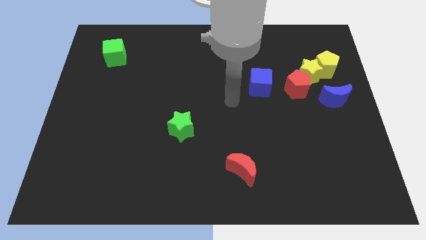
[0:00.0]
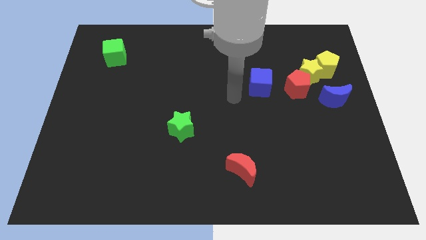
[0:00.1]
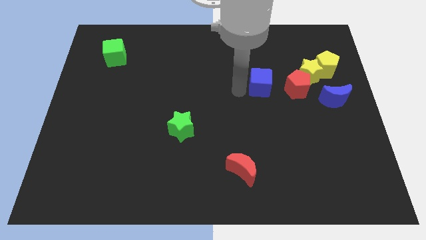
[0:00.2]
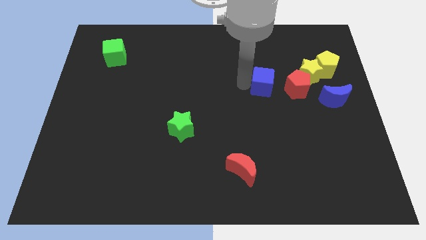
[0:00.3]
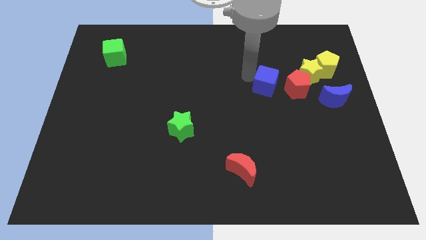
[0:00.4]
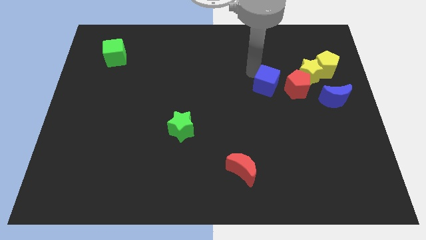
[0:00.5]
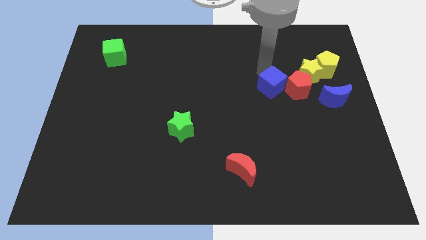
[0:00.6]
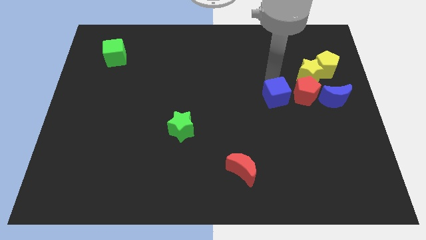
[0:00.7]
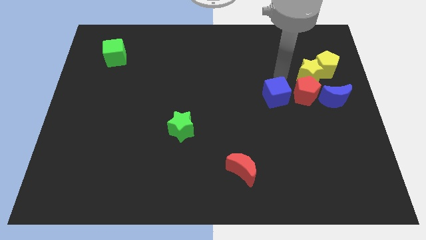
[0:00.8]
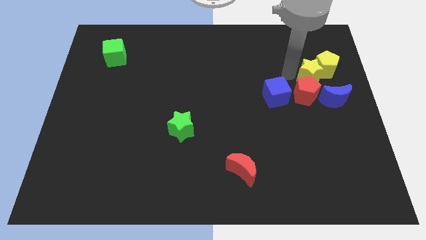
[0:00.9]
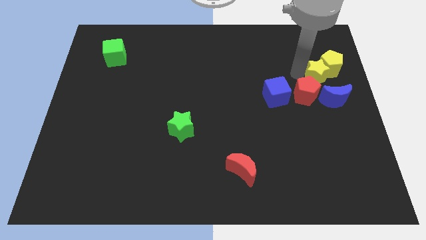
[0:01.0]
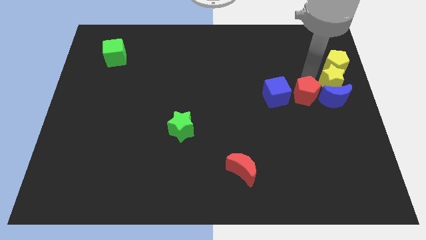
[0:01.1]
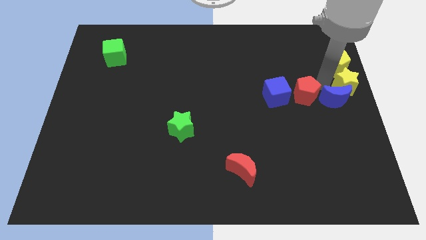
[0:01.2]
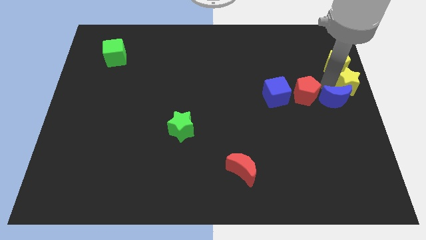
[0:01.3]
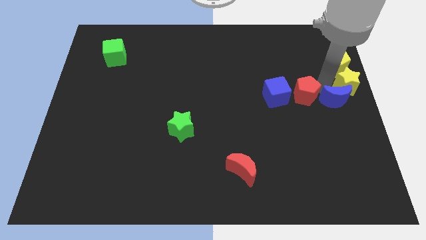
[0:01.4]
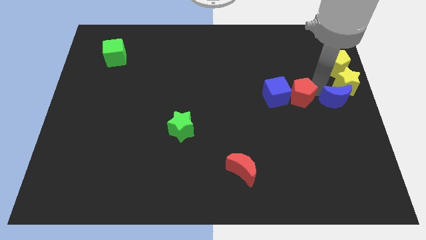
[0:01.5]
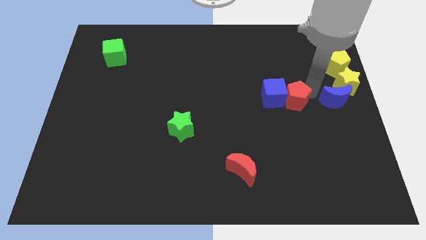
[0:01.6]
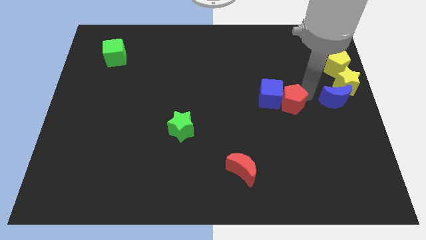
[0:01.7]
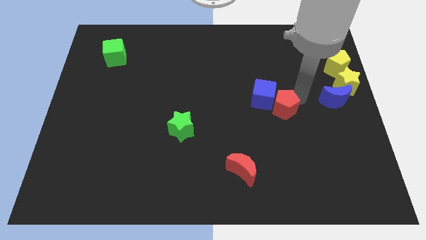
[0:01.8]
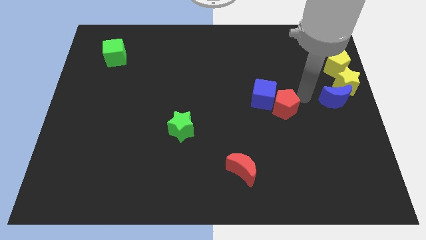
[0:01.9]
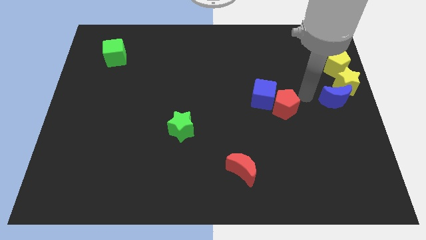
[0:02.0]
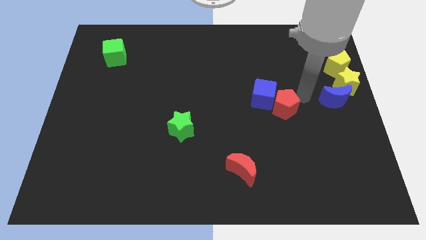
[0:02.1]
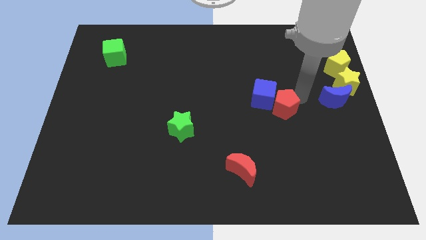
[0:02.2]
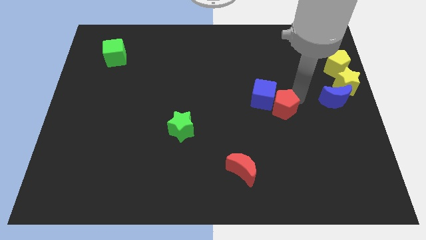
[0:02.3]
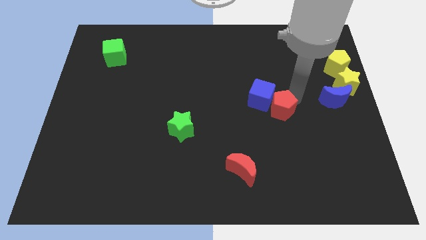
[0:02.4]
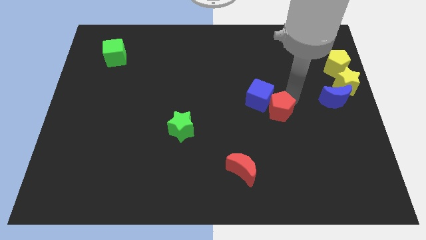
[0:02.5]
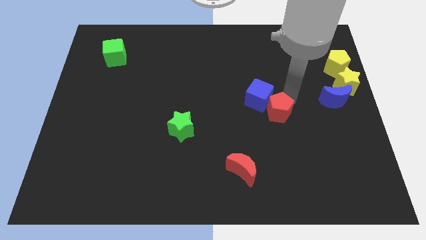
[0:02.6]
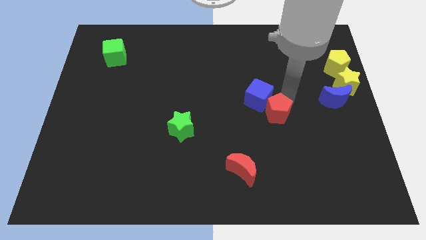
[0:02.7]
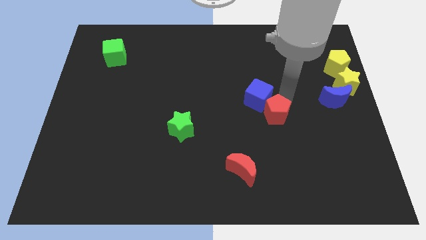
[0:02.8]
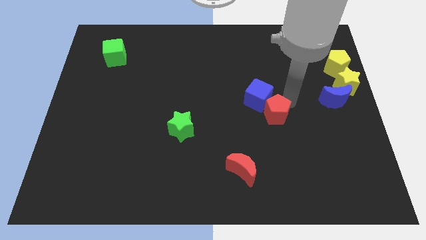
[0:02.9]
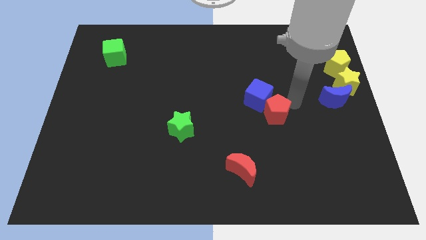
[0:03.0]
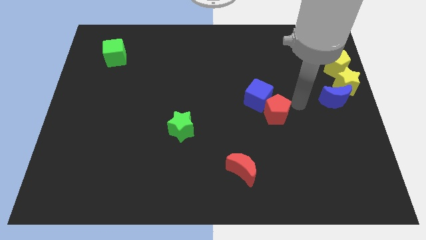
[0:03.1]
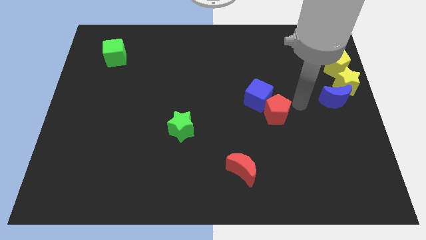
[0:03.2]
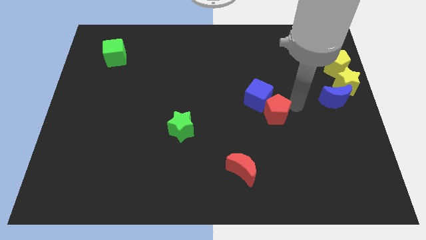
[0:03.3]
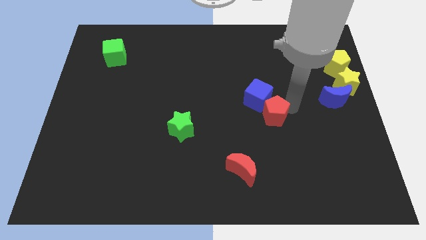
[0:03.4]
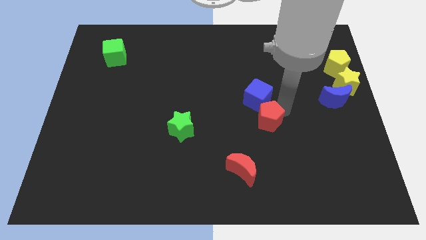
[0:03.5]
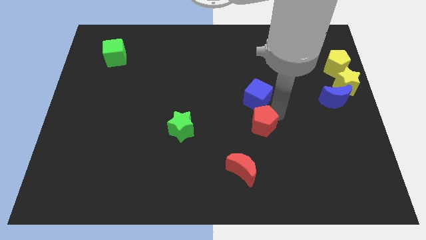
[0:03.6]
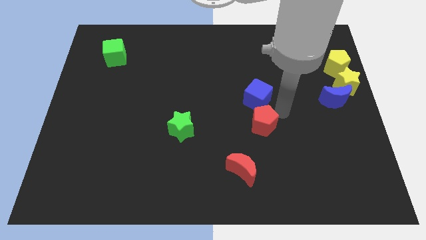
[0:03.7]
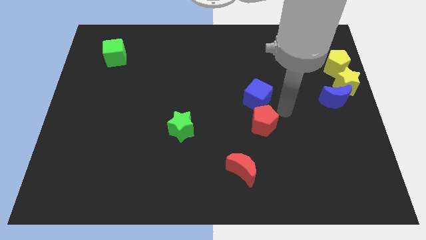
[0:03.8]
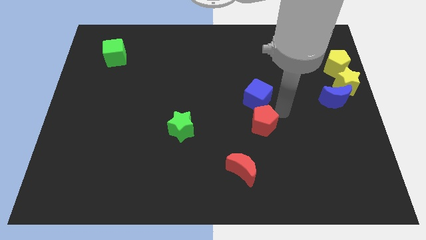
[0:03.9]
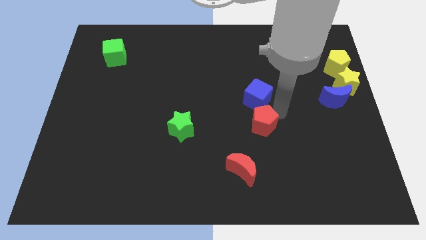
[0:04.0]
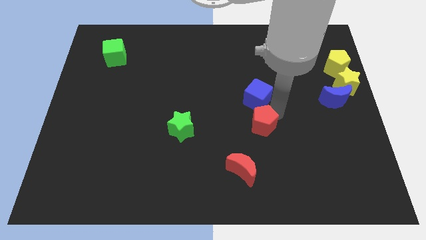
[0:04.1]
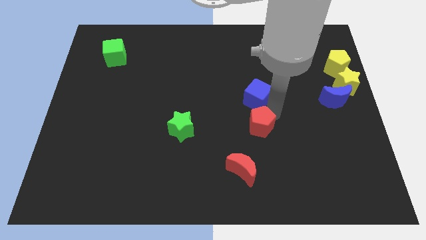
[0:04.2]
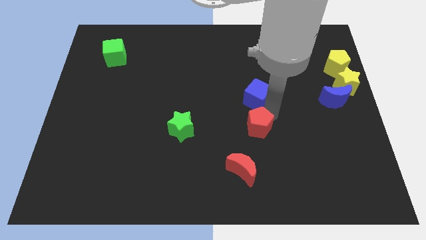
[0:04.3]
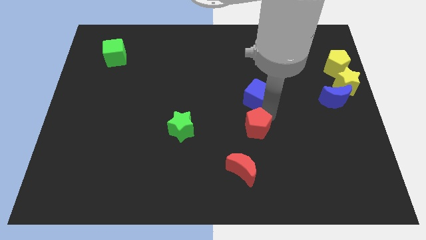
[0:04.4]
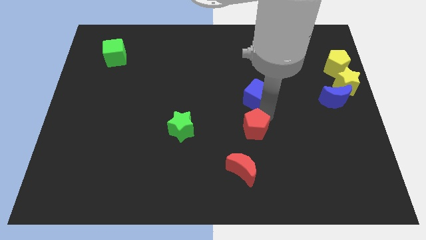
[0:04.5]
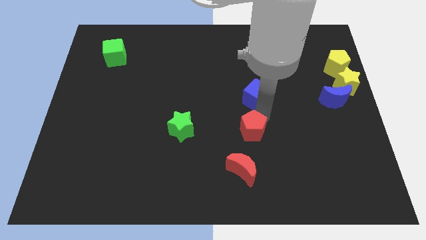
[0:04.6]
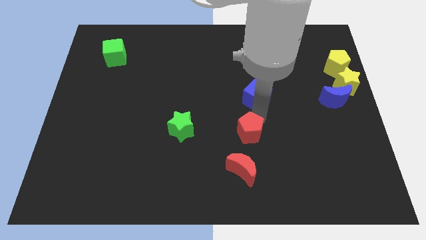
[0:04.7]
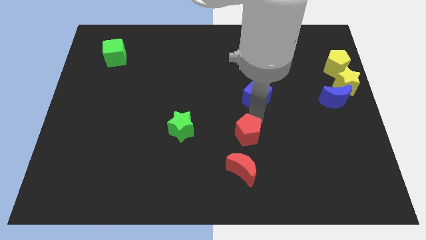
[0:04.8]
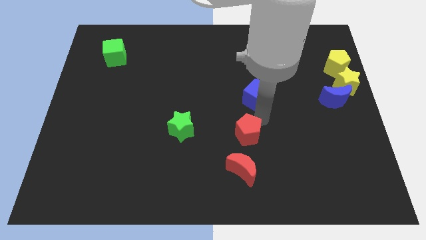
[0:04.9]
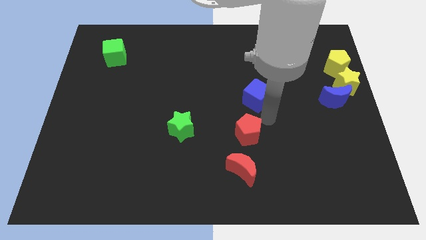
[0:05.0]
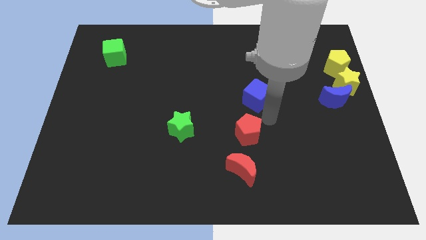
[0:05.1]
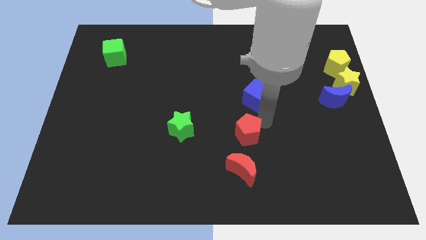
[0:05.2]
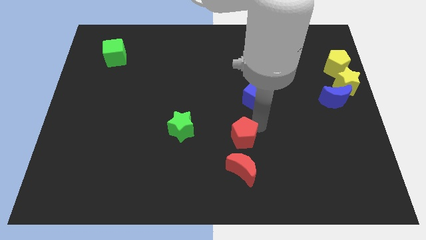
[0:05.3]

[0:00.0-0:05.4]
move the red pentagon down and then left

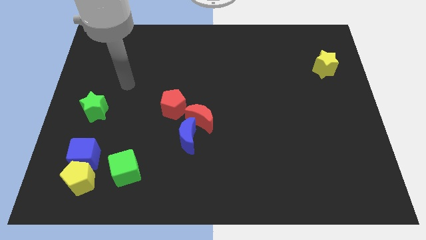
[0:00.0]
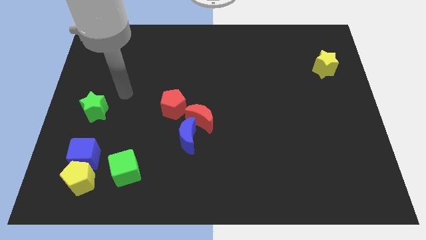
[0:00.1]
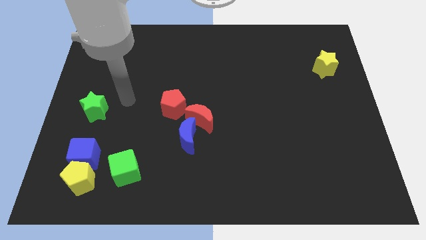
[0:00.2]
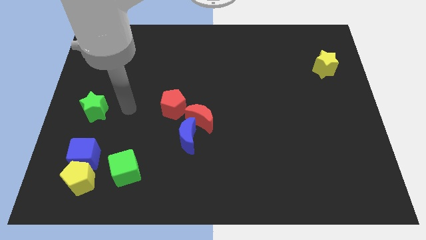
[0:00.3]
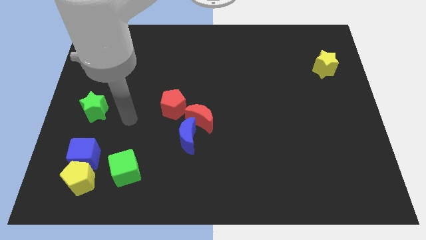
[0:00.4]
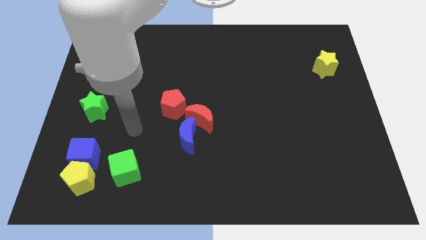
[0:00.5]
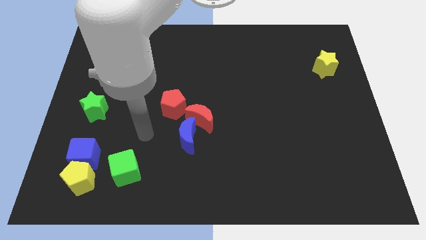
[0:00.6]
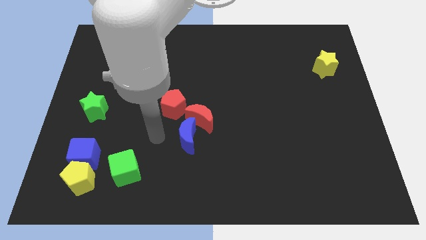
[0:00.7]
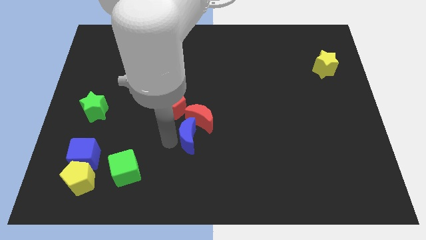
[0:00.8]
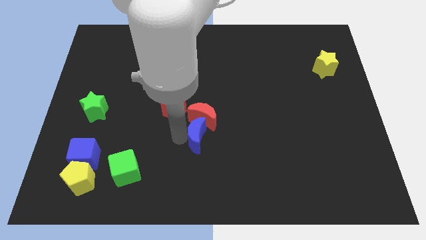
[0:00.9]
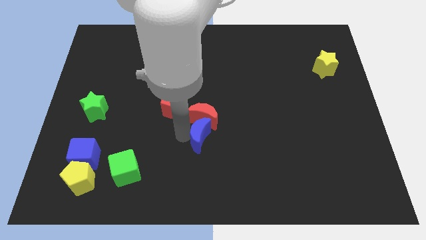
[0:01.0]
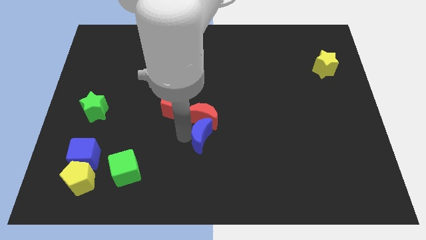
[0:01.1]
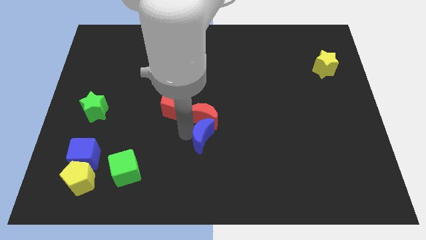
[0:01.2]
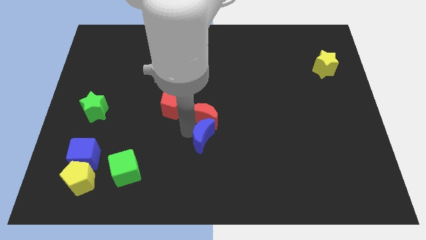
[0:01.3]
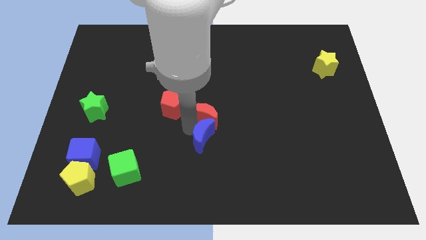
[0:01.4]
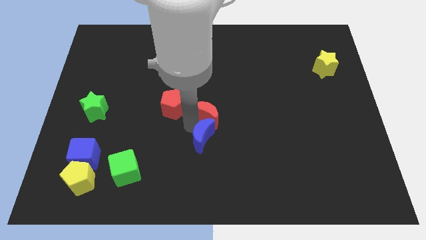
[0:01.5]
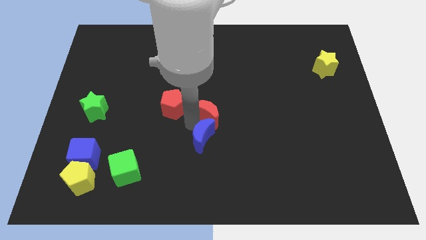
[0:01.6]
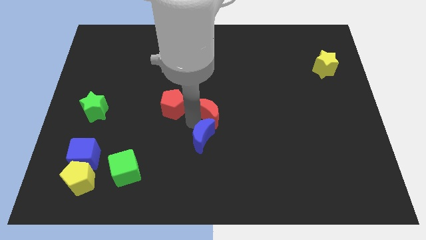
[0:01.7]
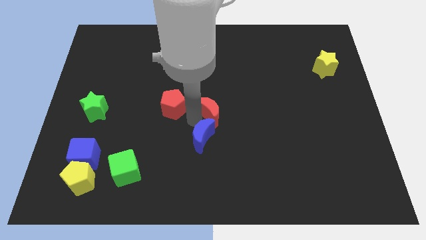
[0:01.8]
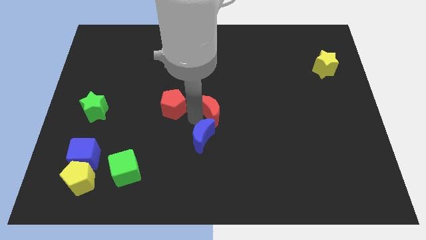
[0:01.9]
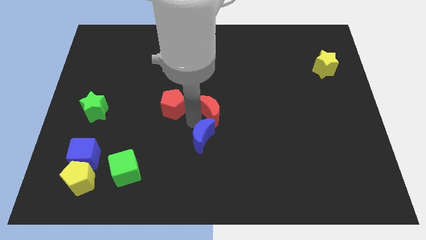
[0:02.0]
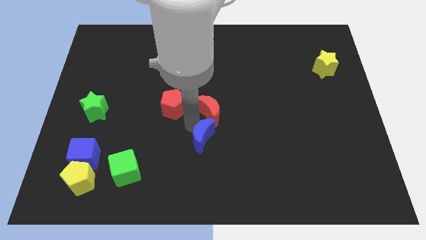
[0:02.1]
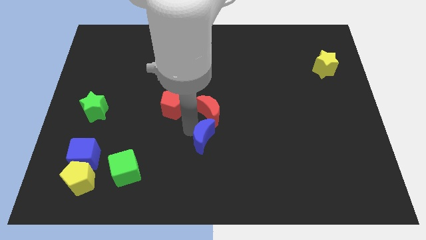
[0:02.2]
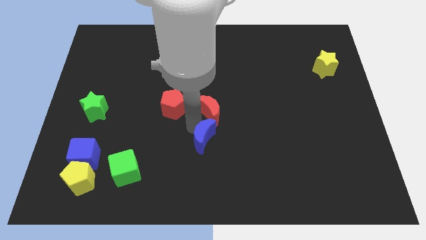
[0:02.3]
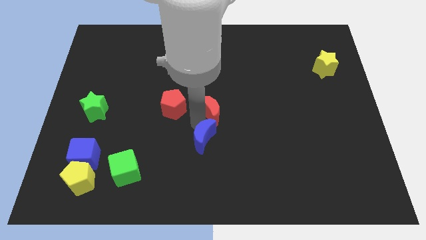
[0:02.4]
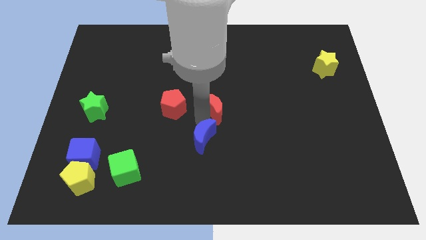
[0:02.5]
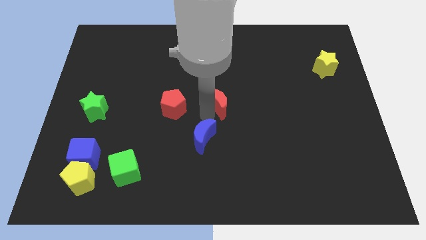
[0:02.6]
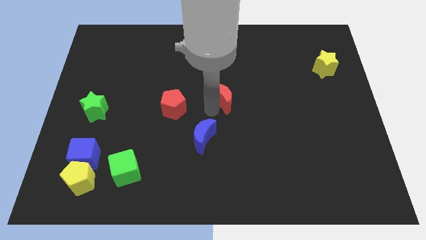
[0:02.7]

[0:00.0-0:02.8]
slide the red moon a little upwards and right
